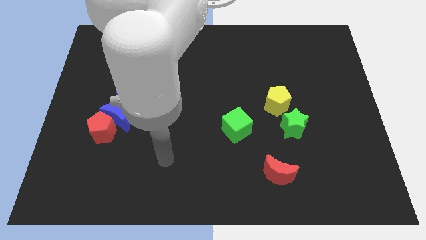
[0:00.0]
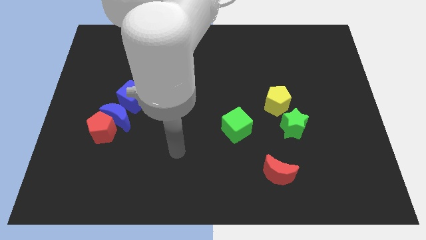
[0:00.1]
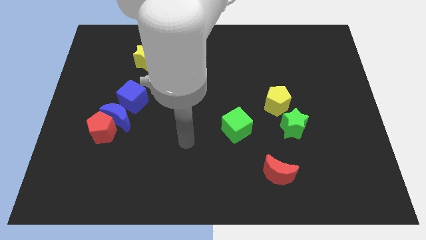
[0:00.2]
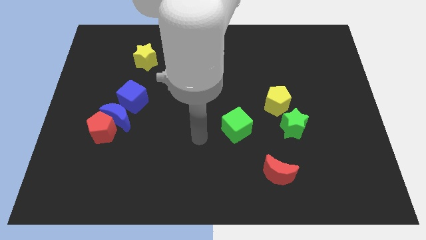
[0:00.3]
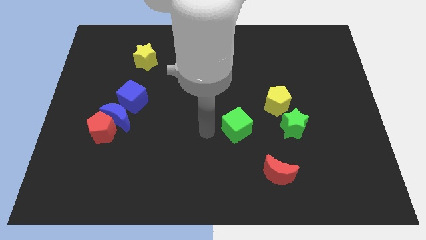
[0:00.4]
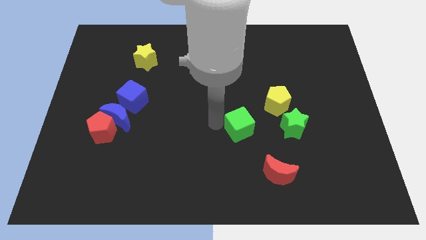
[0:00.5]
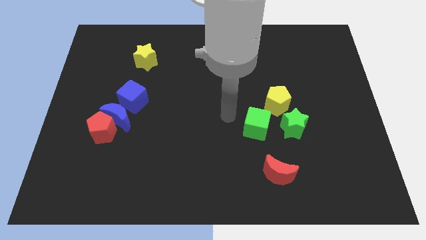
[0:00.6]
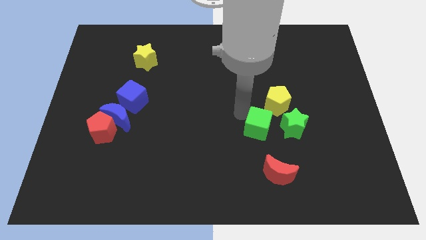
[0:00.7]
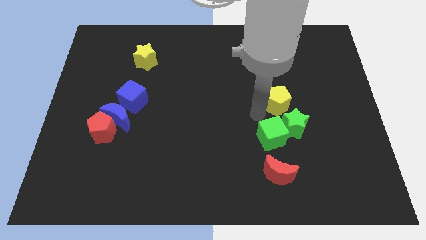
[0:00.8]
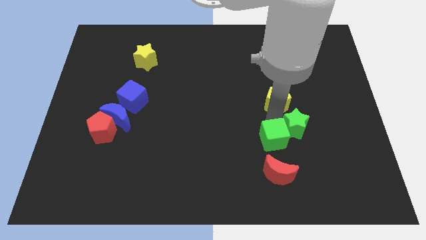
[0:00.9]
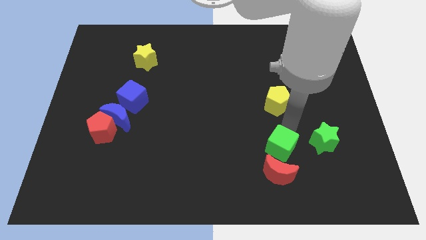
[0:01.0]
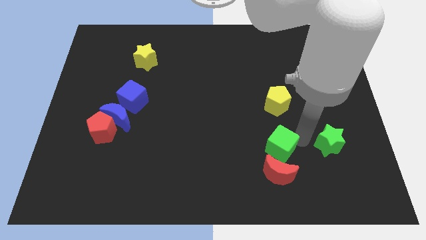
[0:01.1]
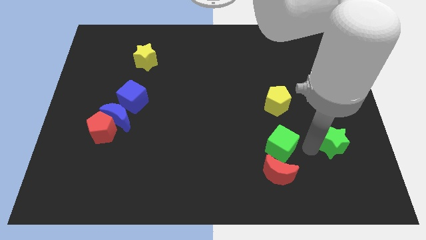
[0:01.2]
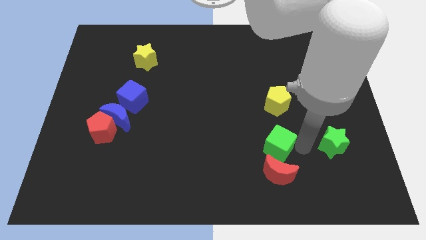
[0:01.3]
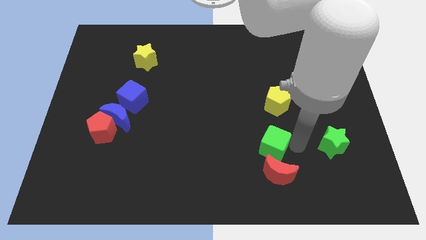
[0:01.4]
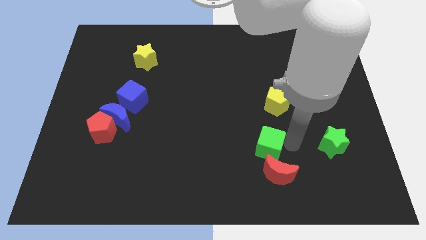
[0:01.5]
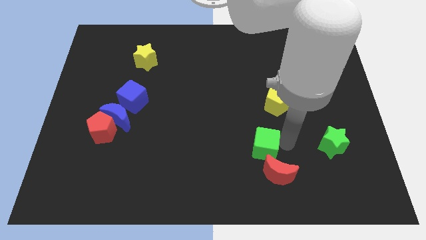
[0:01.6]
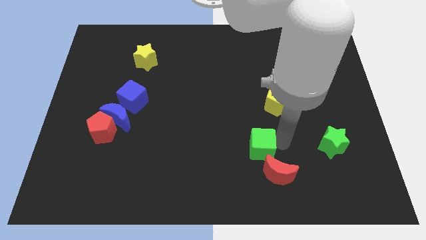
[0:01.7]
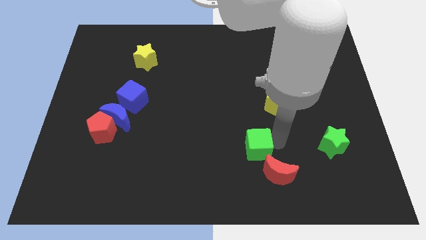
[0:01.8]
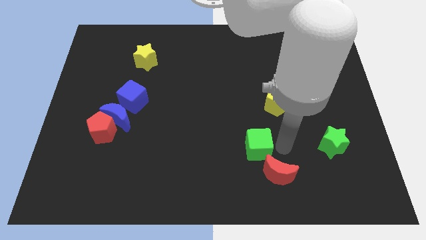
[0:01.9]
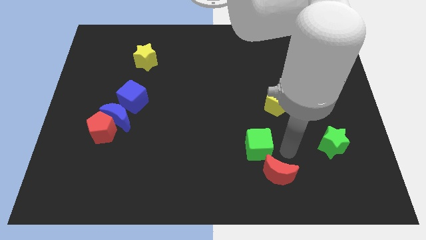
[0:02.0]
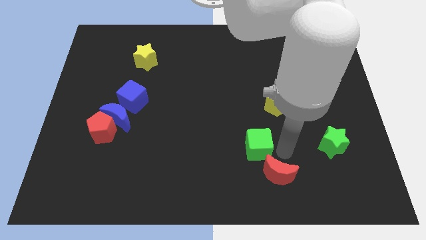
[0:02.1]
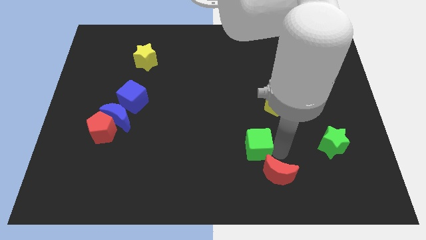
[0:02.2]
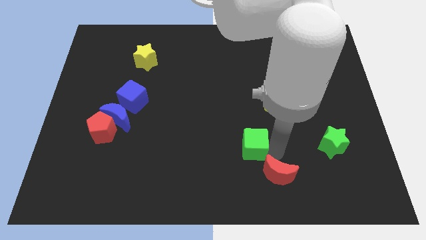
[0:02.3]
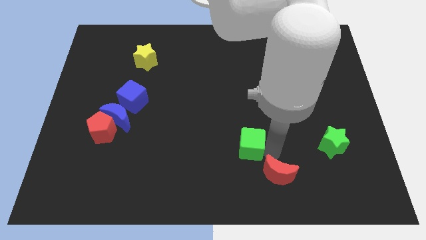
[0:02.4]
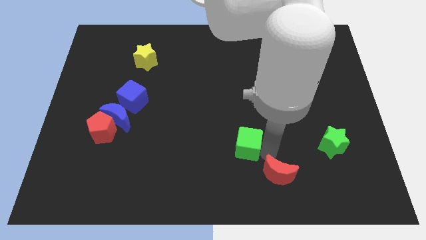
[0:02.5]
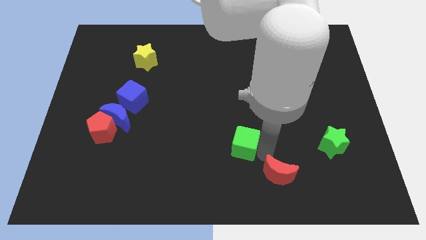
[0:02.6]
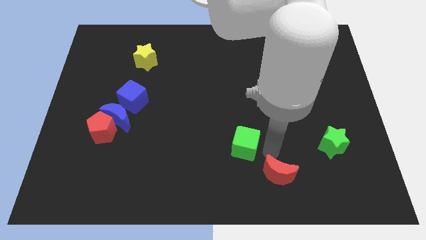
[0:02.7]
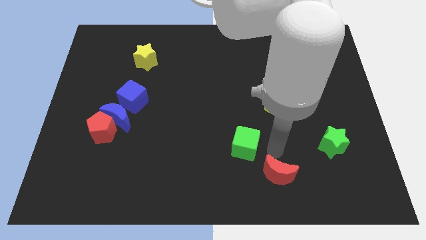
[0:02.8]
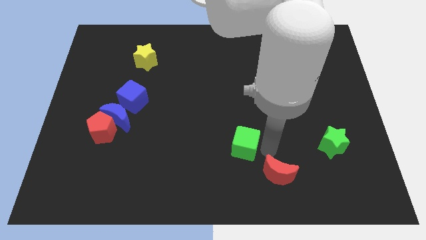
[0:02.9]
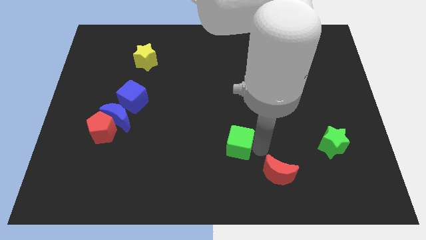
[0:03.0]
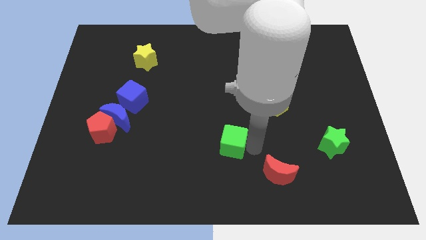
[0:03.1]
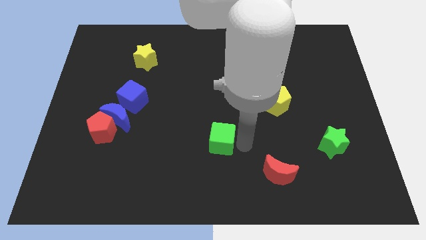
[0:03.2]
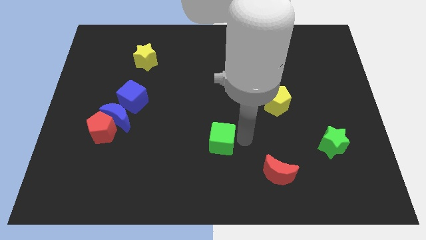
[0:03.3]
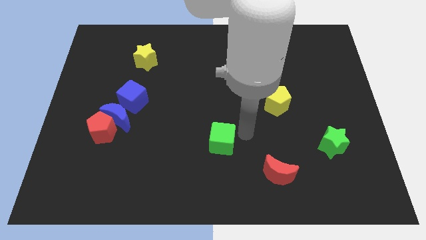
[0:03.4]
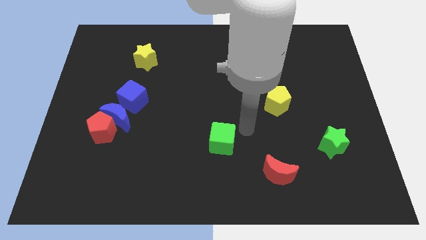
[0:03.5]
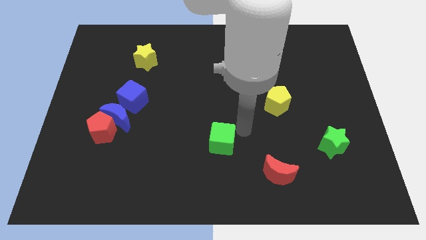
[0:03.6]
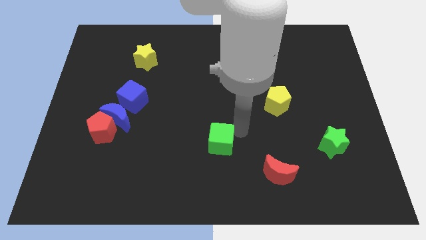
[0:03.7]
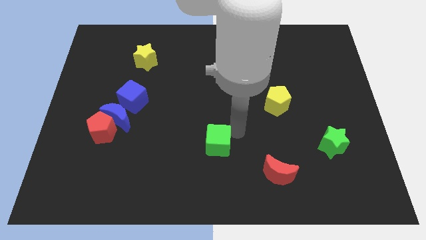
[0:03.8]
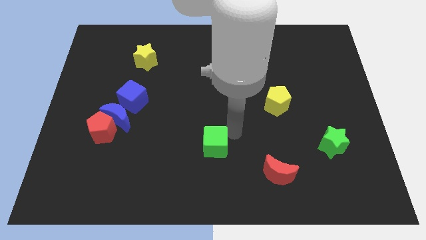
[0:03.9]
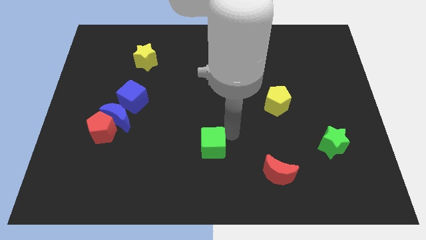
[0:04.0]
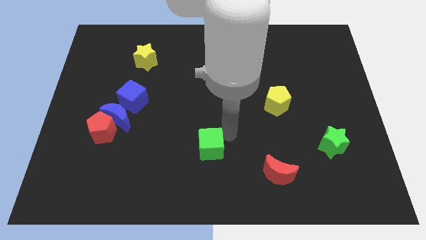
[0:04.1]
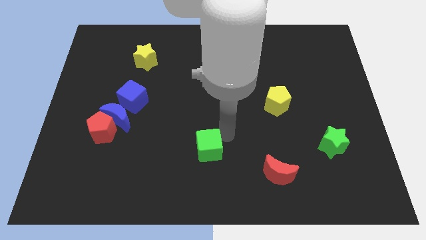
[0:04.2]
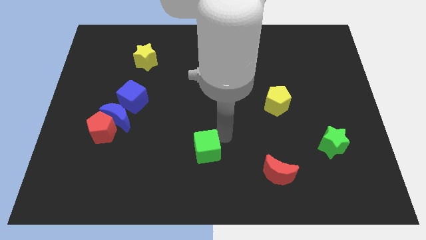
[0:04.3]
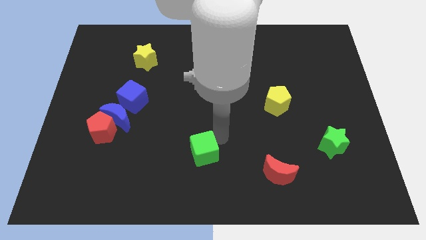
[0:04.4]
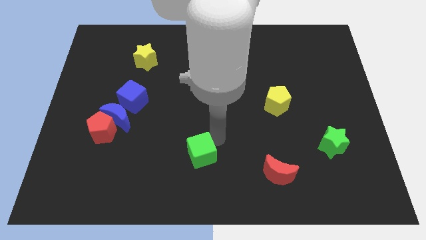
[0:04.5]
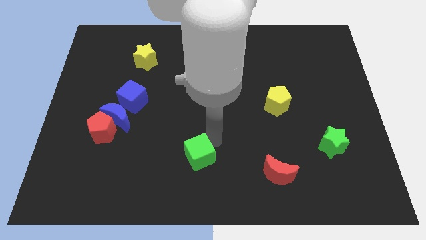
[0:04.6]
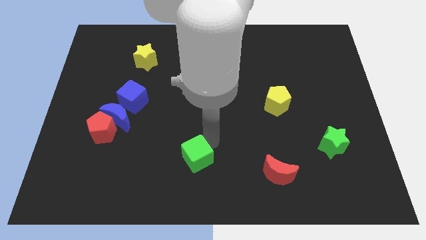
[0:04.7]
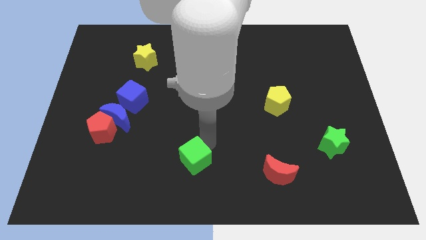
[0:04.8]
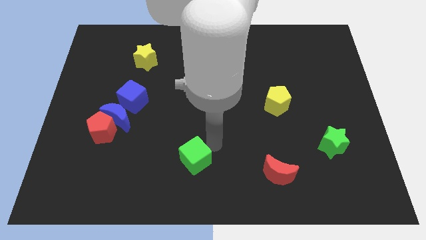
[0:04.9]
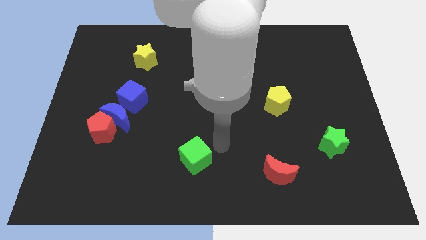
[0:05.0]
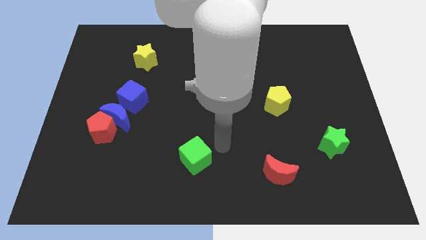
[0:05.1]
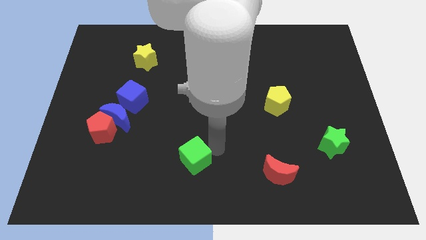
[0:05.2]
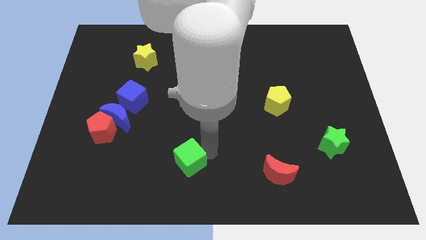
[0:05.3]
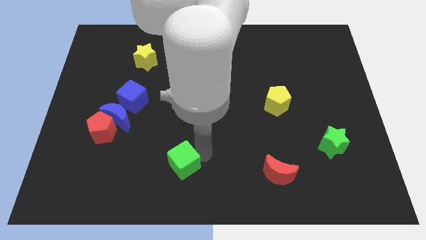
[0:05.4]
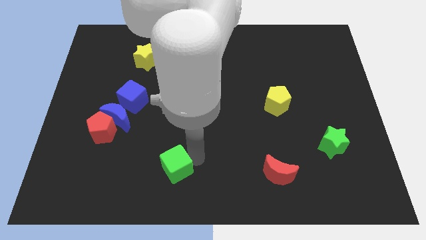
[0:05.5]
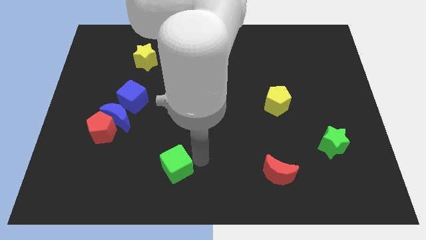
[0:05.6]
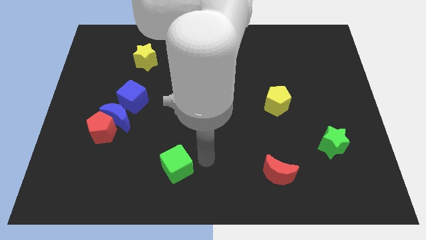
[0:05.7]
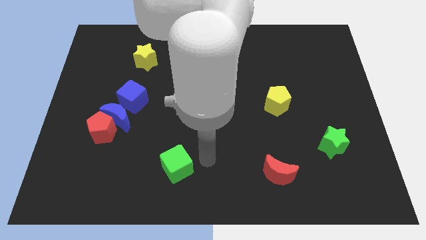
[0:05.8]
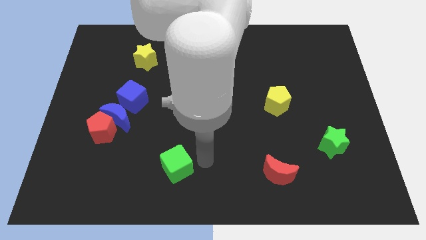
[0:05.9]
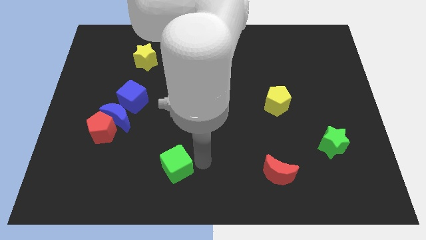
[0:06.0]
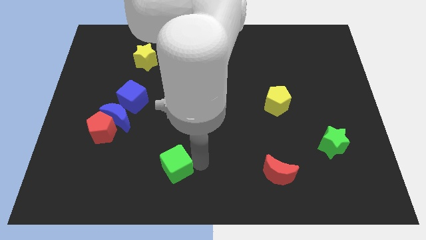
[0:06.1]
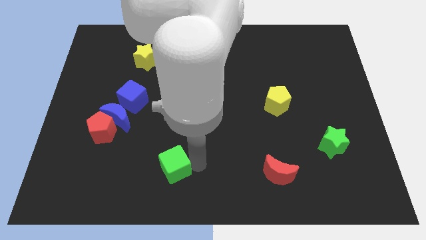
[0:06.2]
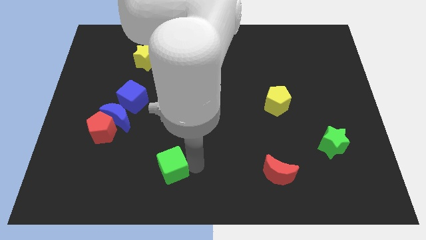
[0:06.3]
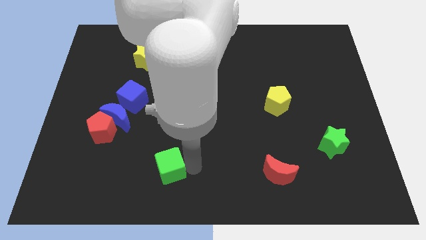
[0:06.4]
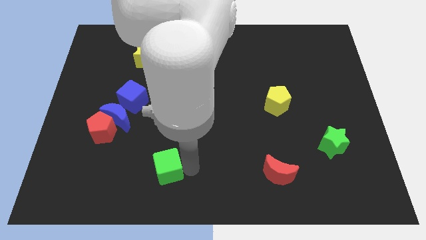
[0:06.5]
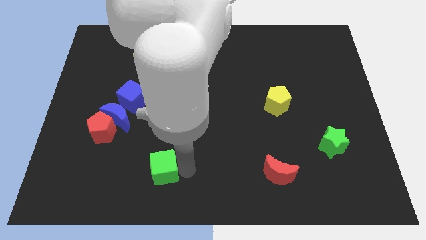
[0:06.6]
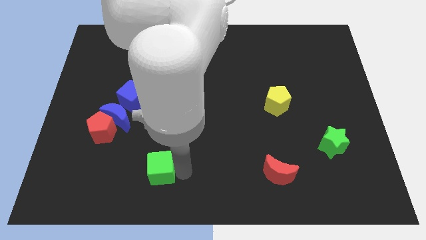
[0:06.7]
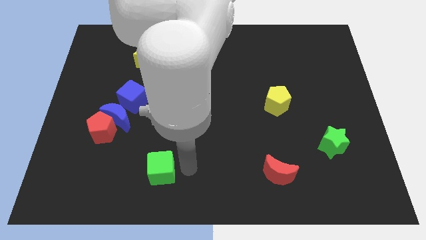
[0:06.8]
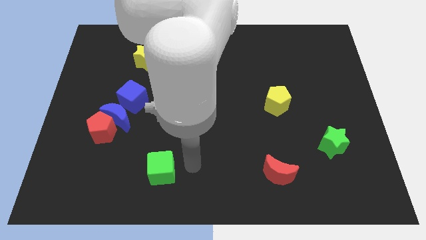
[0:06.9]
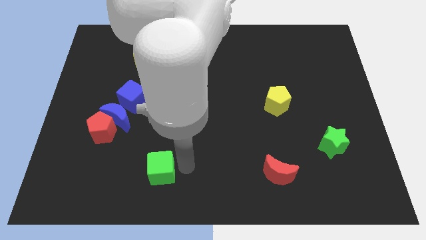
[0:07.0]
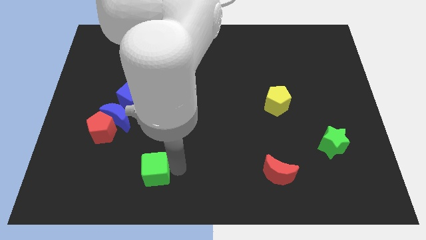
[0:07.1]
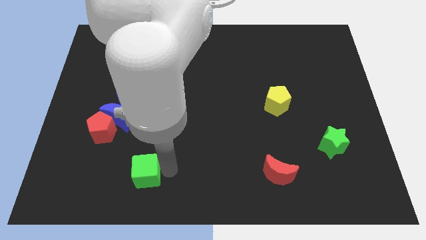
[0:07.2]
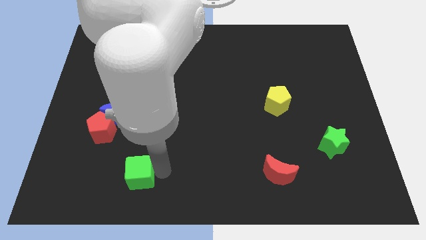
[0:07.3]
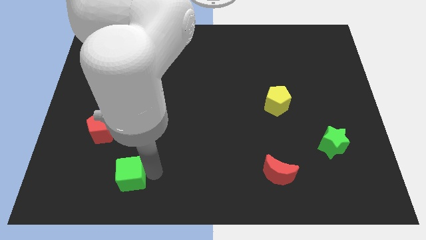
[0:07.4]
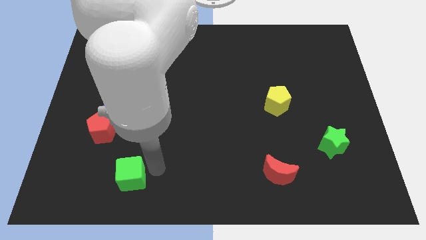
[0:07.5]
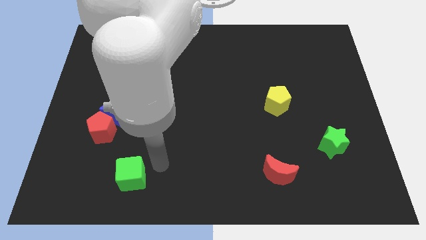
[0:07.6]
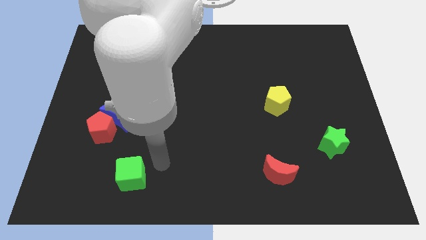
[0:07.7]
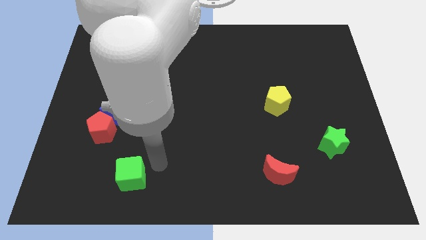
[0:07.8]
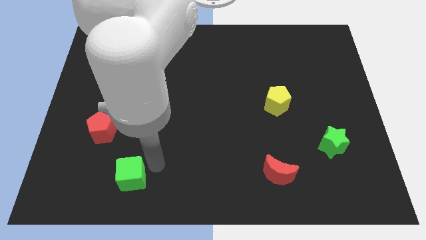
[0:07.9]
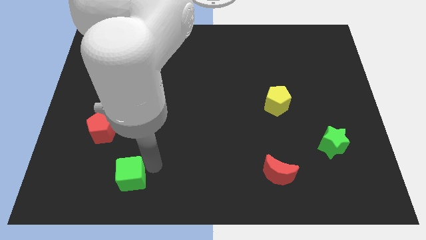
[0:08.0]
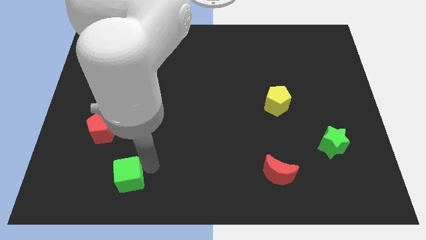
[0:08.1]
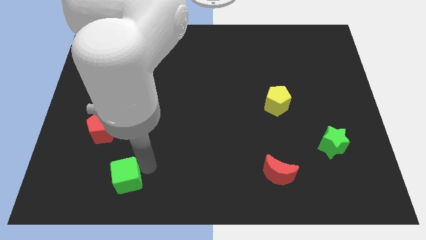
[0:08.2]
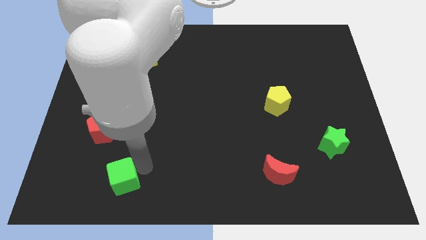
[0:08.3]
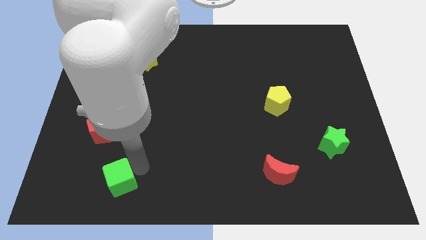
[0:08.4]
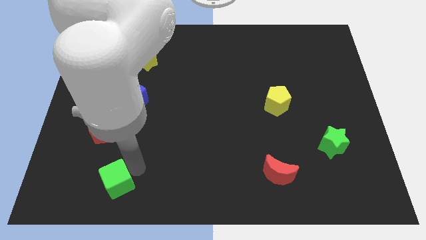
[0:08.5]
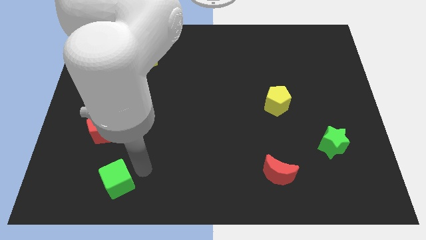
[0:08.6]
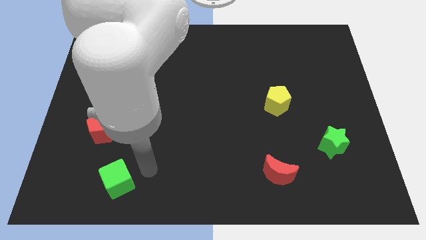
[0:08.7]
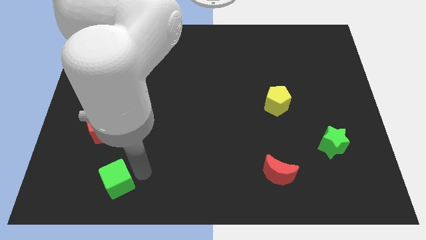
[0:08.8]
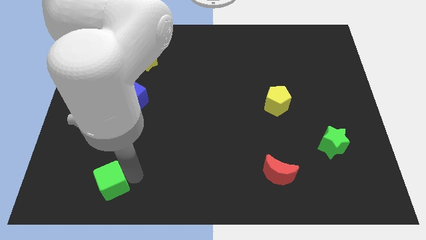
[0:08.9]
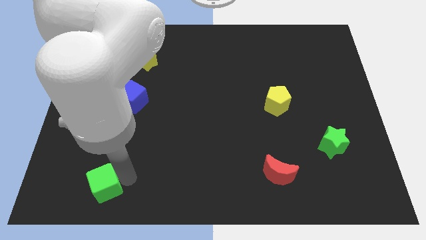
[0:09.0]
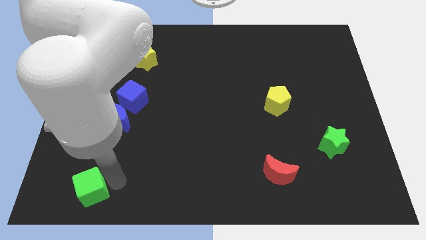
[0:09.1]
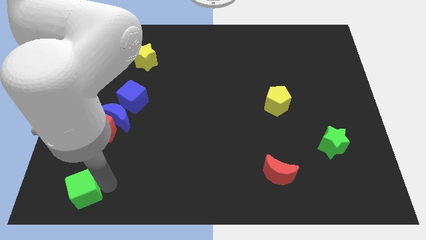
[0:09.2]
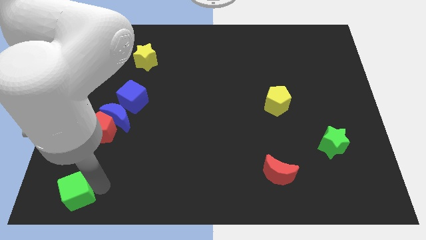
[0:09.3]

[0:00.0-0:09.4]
slide the green cube to the bottom left of the board
